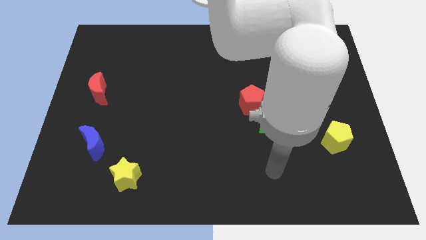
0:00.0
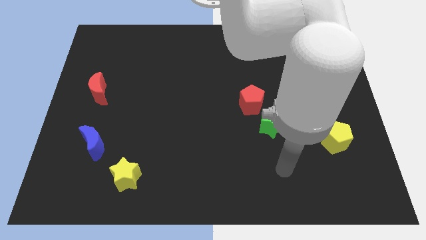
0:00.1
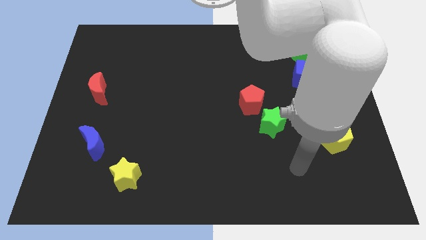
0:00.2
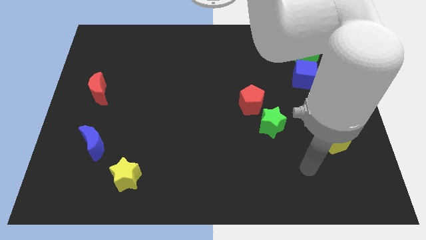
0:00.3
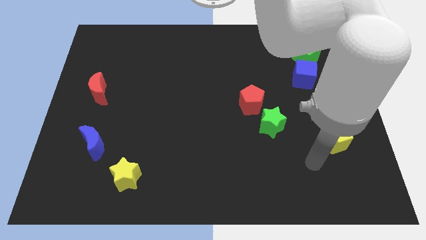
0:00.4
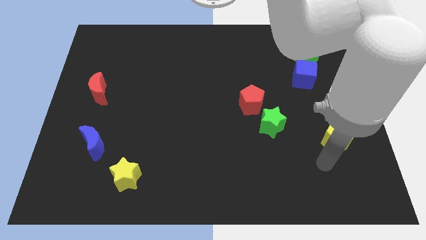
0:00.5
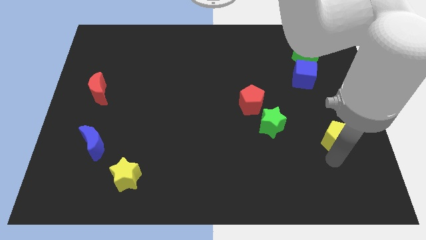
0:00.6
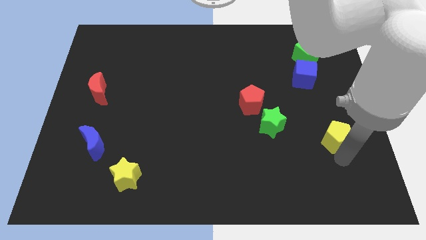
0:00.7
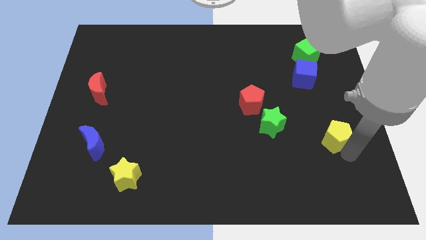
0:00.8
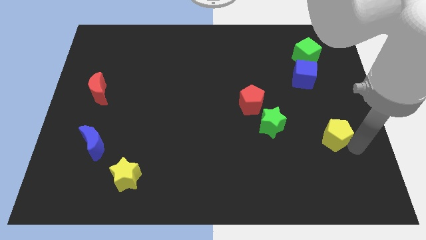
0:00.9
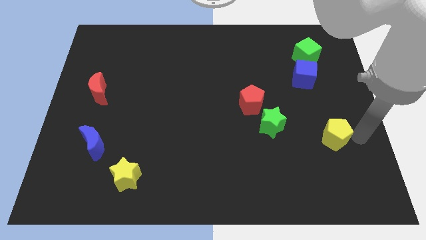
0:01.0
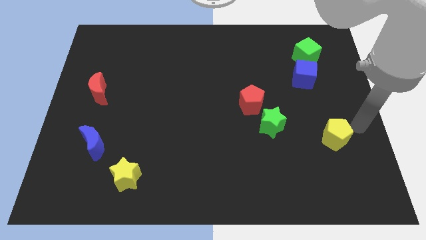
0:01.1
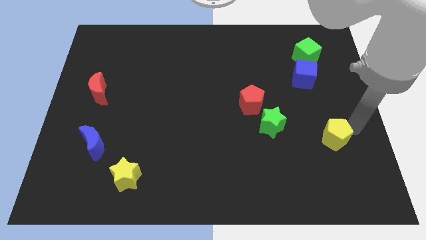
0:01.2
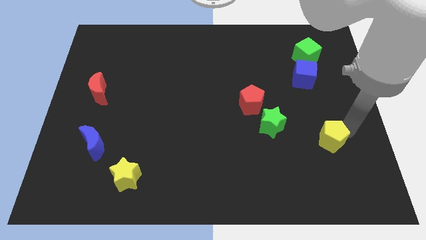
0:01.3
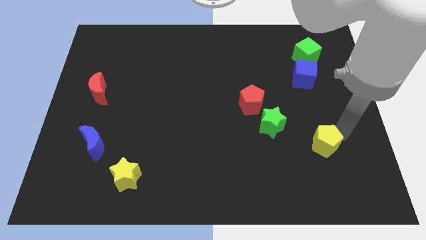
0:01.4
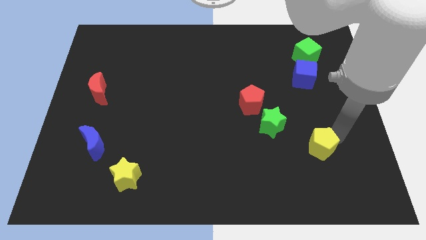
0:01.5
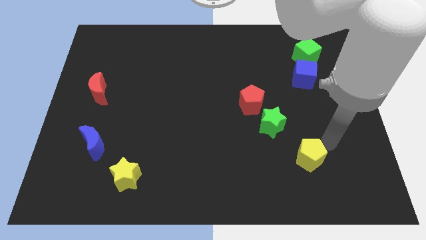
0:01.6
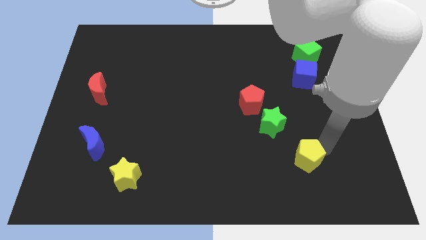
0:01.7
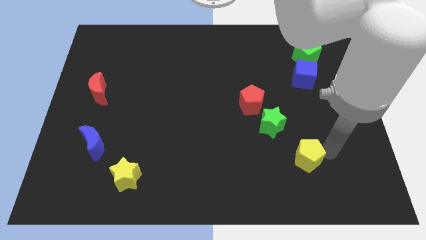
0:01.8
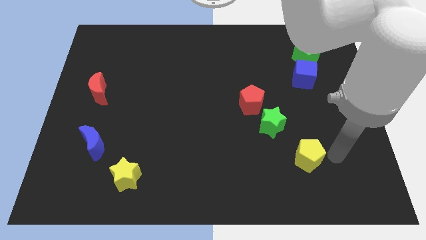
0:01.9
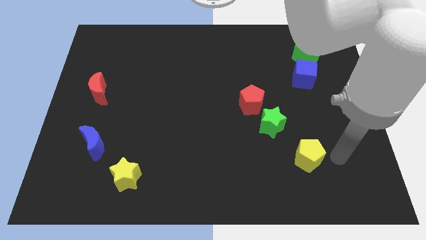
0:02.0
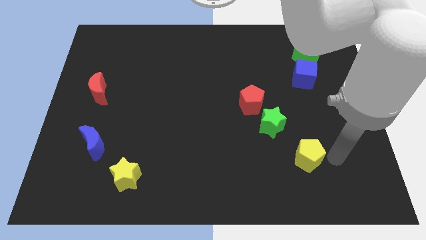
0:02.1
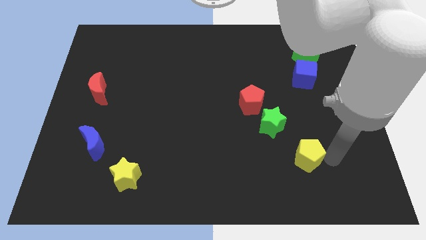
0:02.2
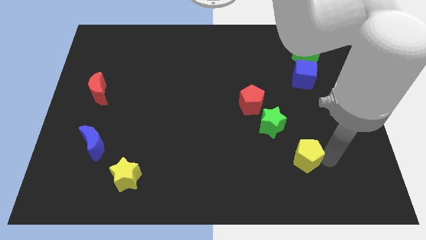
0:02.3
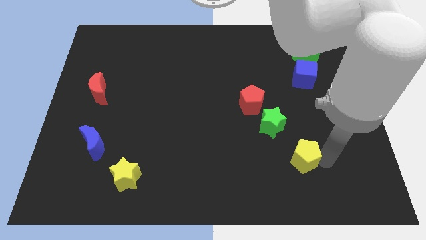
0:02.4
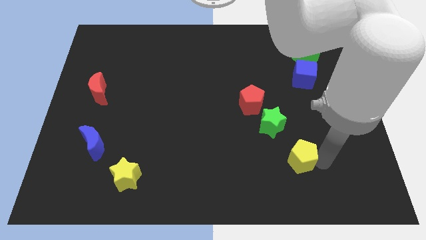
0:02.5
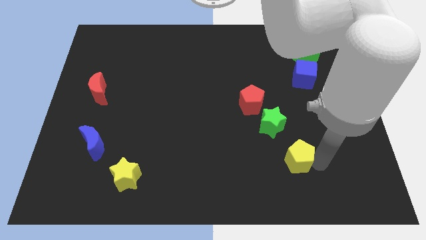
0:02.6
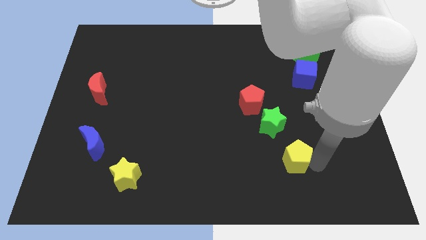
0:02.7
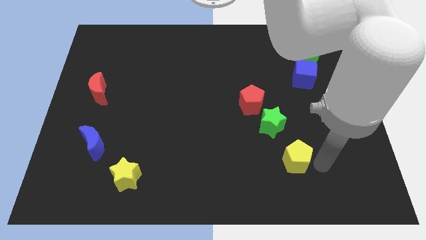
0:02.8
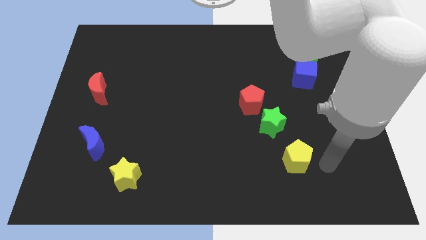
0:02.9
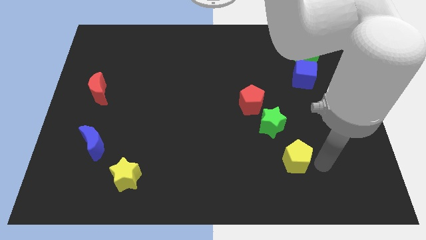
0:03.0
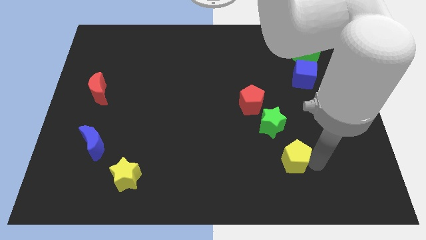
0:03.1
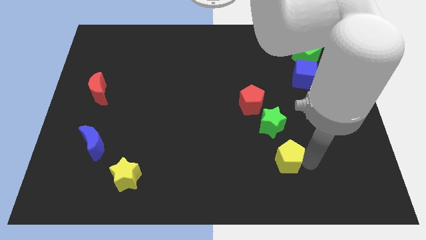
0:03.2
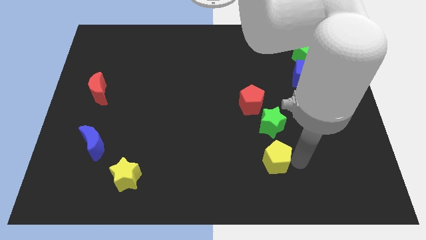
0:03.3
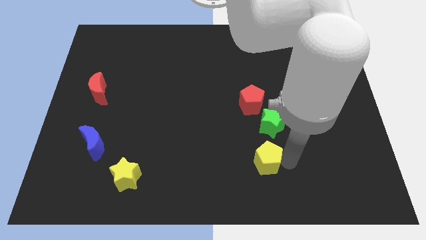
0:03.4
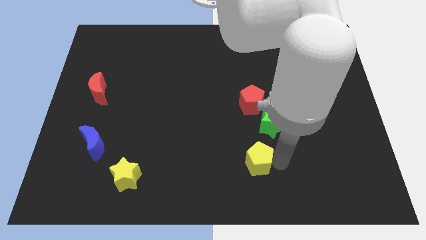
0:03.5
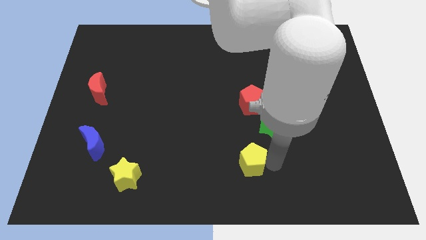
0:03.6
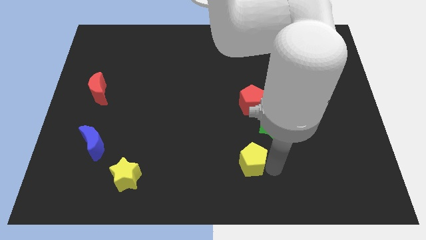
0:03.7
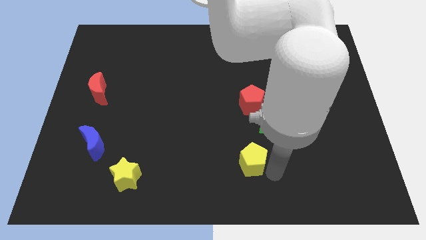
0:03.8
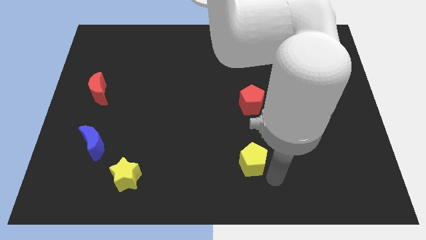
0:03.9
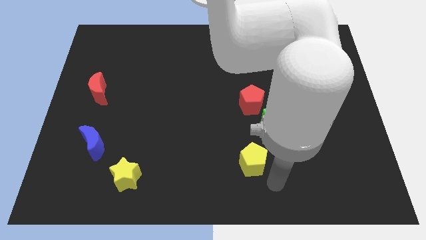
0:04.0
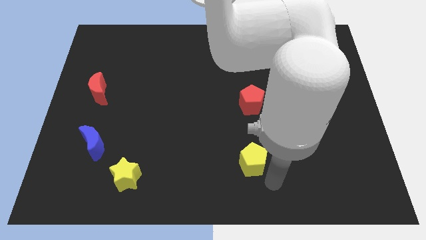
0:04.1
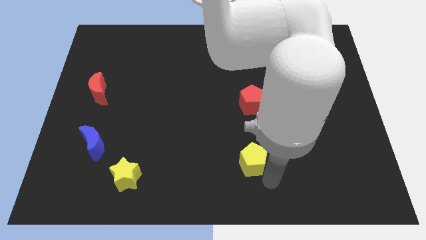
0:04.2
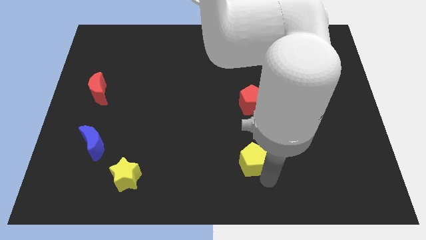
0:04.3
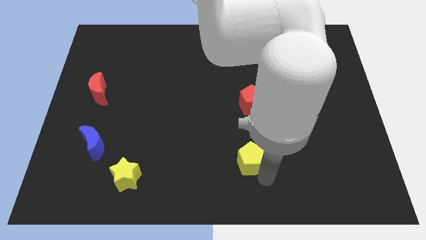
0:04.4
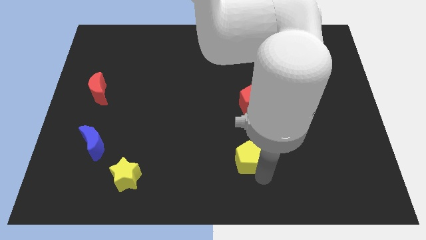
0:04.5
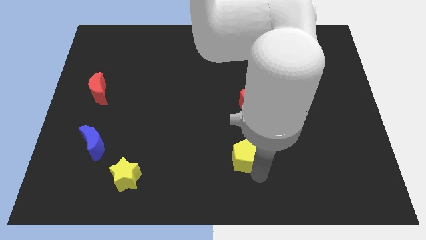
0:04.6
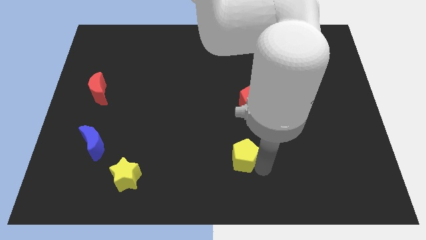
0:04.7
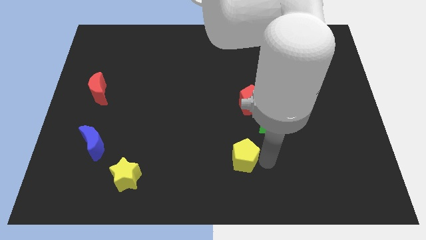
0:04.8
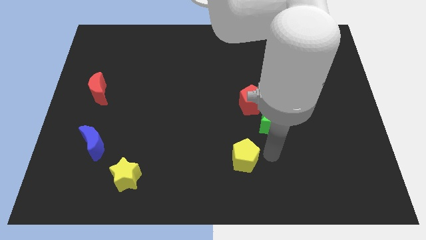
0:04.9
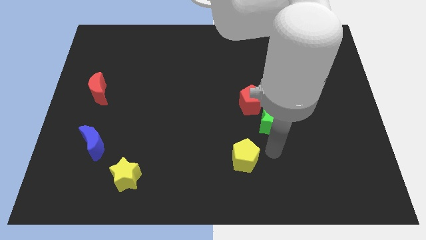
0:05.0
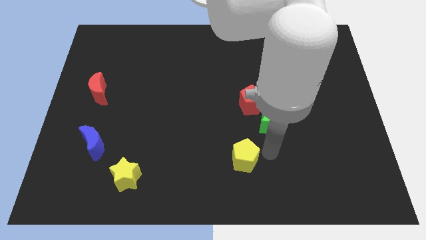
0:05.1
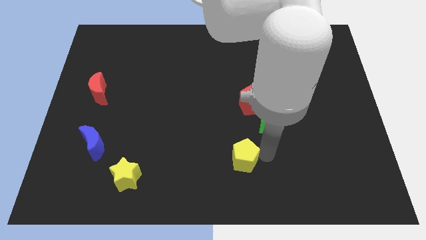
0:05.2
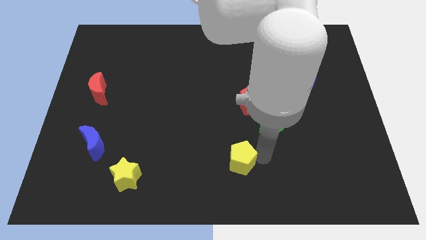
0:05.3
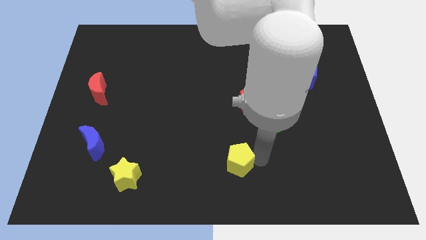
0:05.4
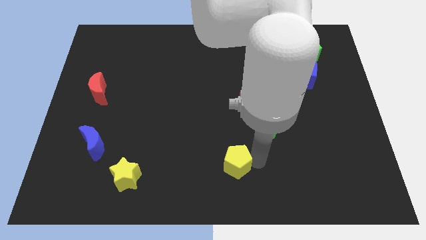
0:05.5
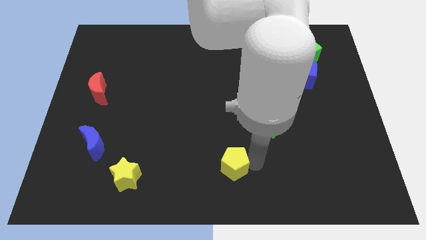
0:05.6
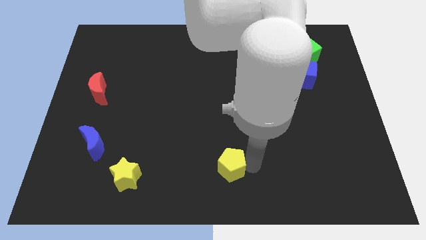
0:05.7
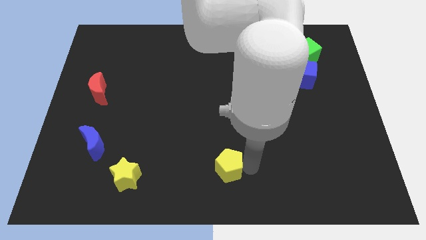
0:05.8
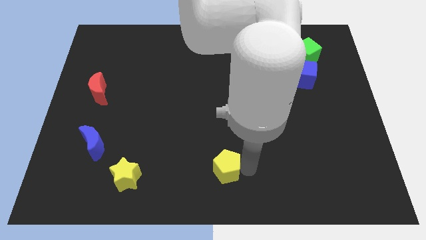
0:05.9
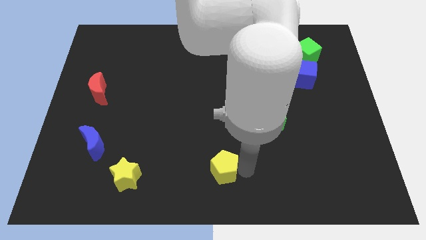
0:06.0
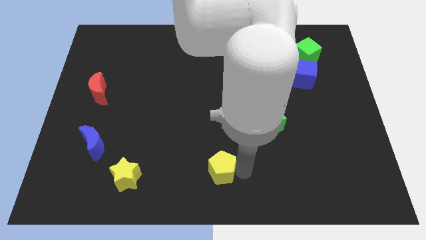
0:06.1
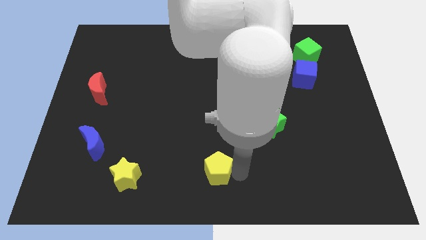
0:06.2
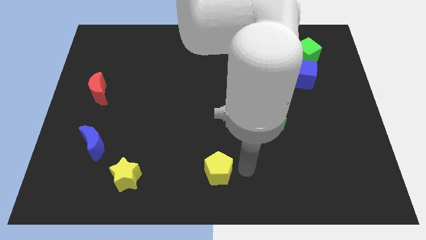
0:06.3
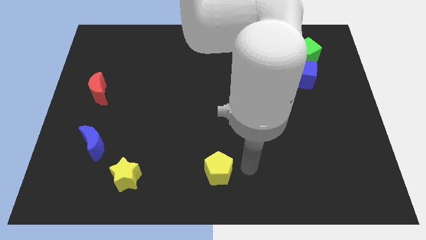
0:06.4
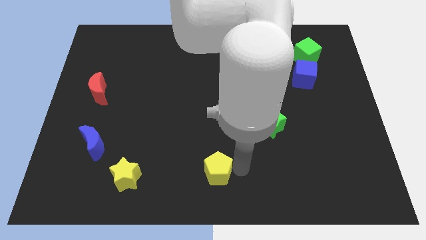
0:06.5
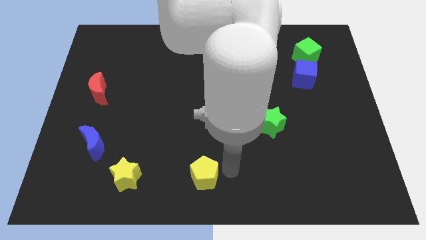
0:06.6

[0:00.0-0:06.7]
put the yellow pentagon right of the yellow star
